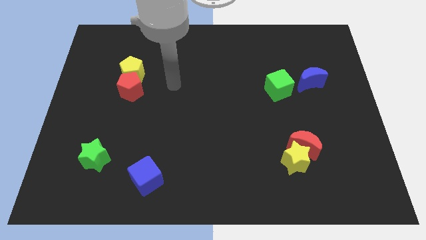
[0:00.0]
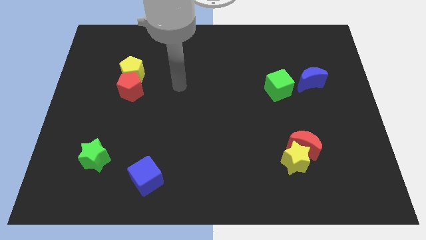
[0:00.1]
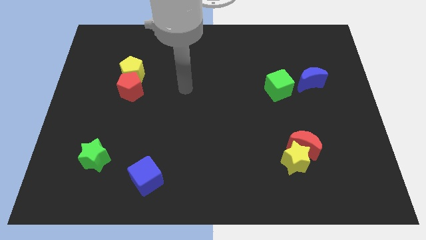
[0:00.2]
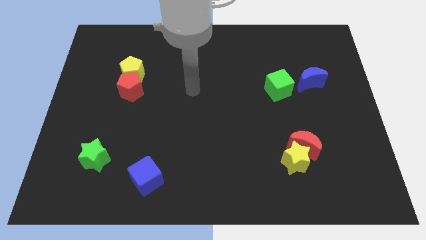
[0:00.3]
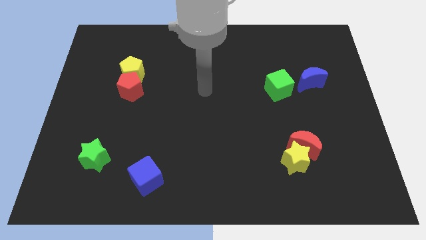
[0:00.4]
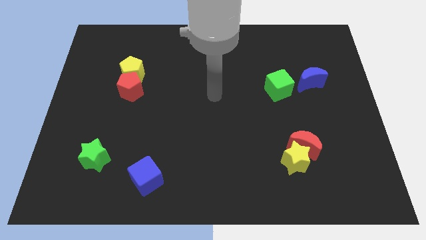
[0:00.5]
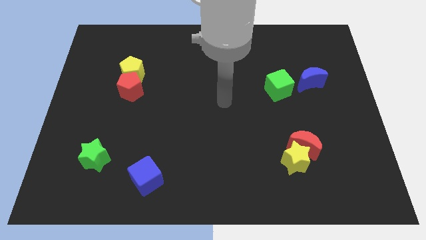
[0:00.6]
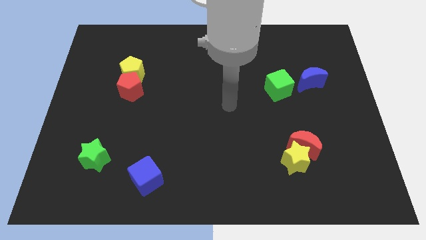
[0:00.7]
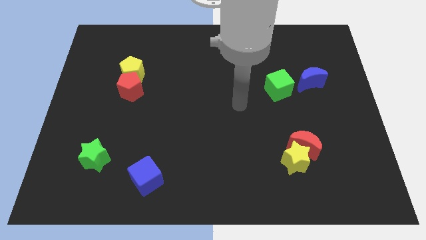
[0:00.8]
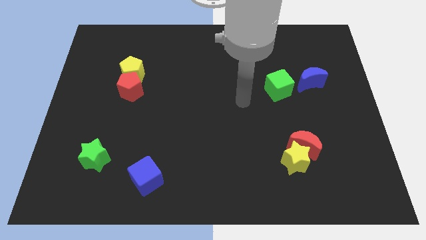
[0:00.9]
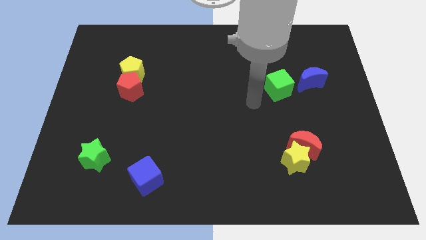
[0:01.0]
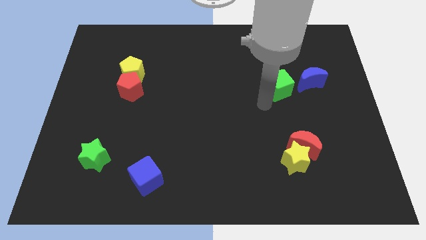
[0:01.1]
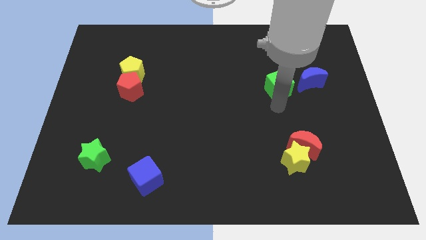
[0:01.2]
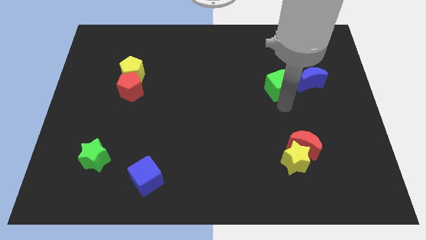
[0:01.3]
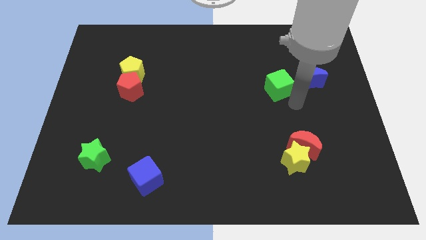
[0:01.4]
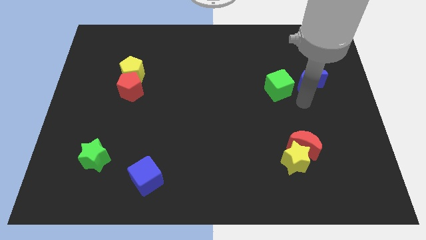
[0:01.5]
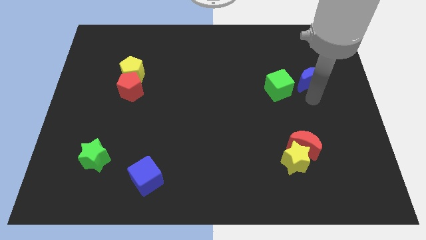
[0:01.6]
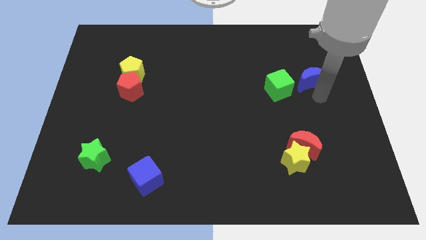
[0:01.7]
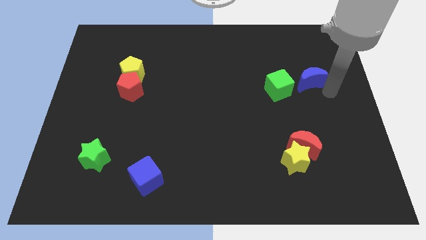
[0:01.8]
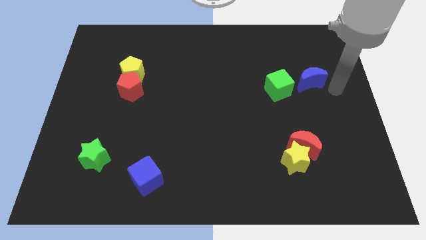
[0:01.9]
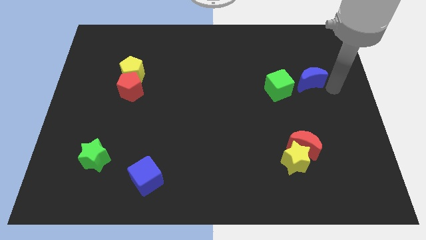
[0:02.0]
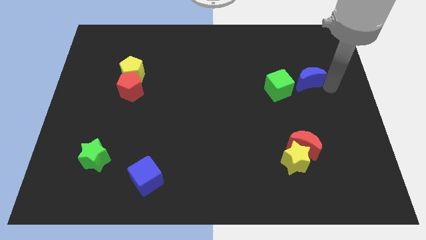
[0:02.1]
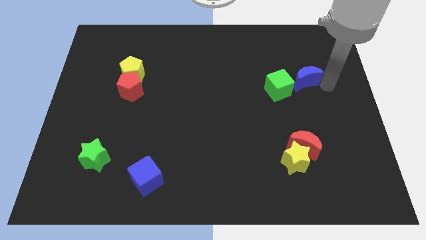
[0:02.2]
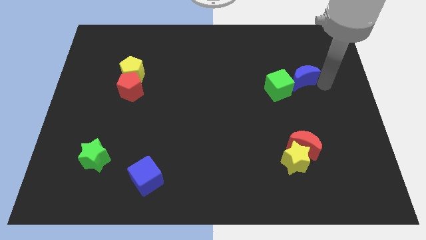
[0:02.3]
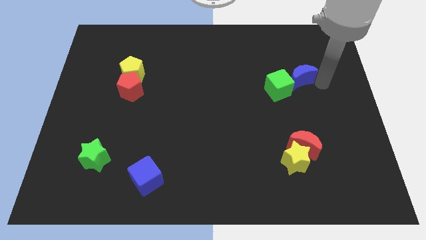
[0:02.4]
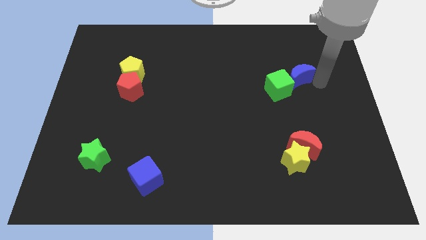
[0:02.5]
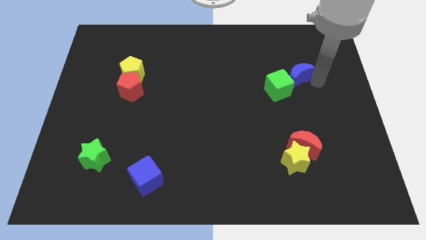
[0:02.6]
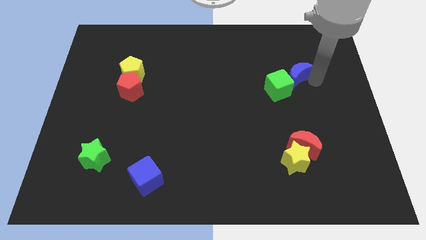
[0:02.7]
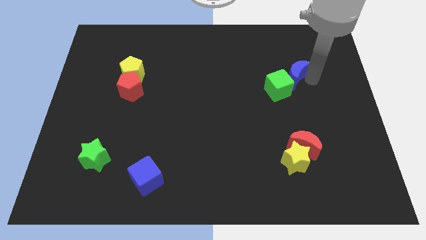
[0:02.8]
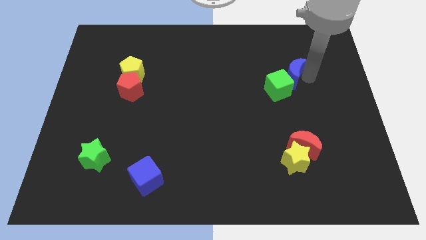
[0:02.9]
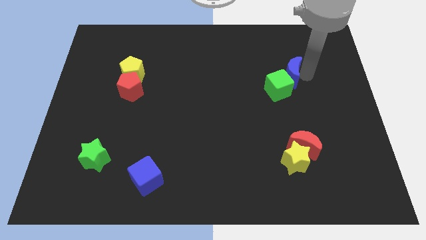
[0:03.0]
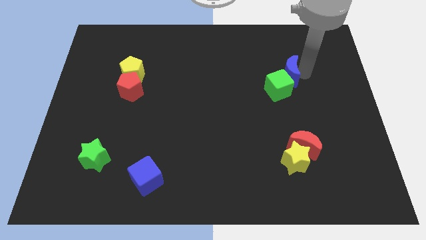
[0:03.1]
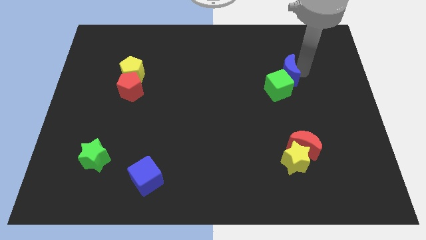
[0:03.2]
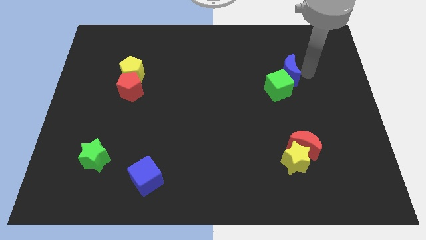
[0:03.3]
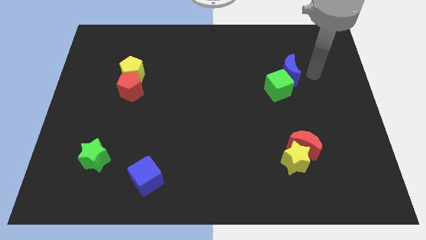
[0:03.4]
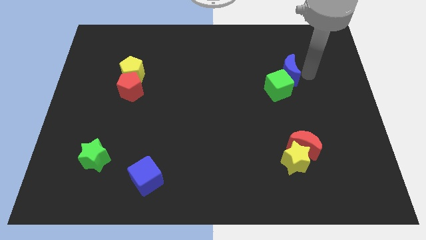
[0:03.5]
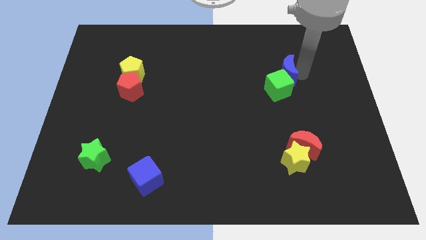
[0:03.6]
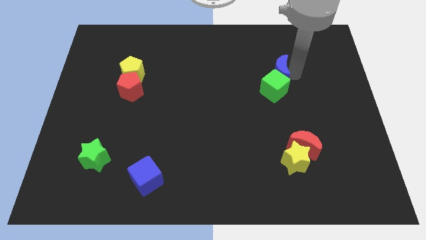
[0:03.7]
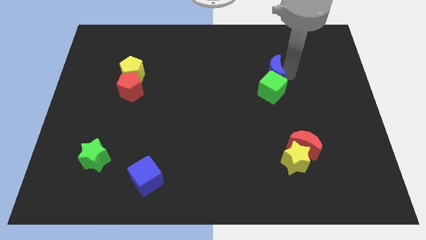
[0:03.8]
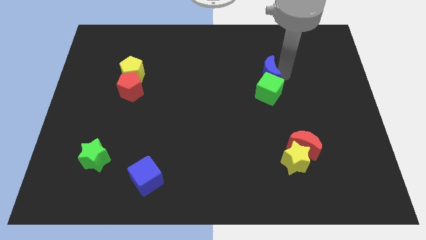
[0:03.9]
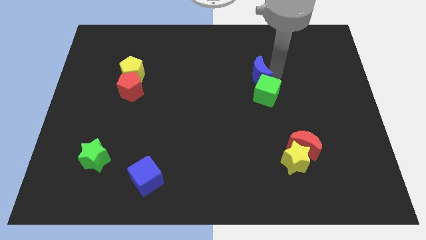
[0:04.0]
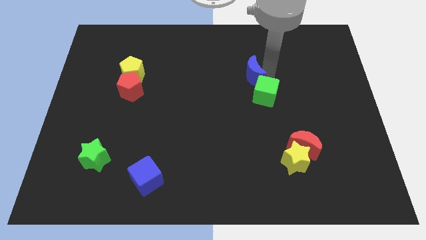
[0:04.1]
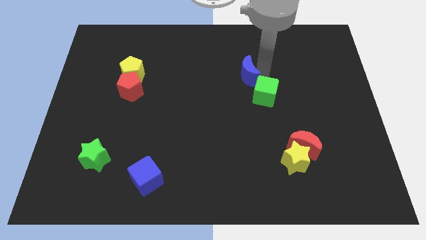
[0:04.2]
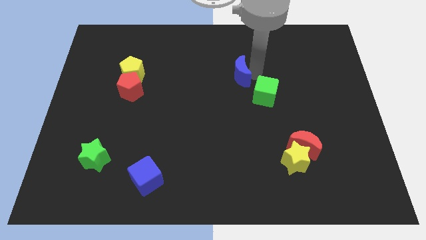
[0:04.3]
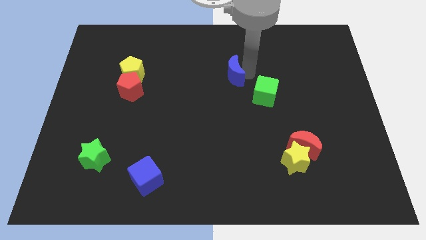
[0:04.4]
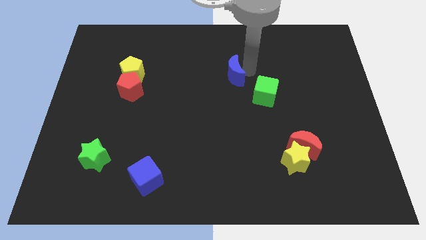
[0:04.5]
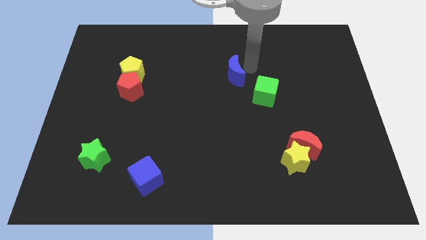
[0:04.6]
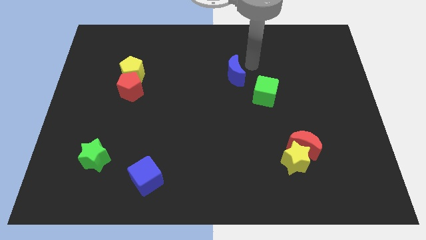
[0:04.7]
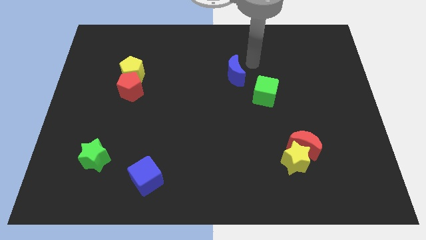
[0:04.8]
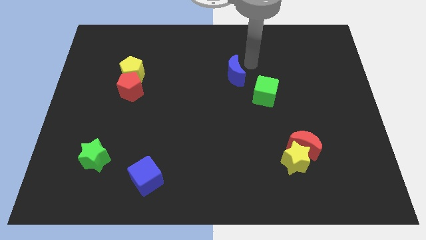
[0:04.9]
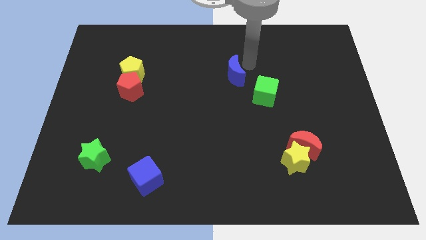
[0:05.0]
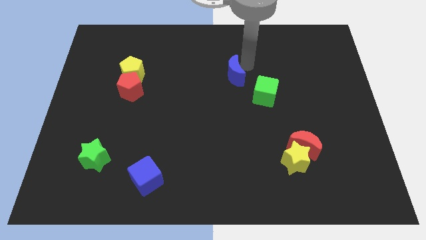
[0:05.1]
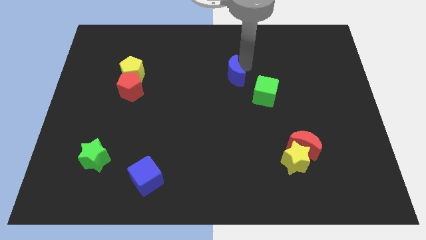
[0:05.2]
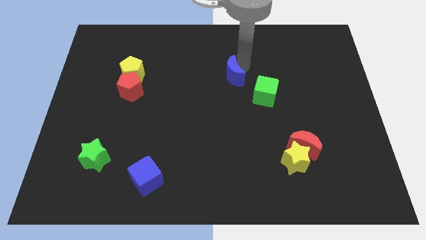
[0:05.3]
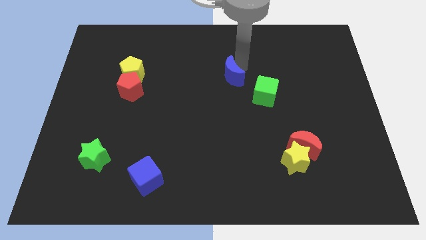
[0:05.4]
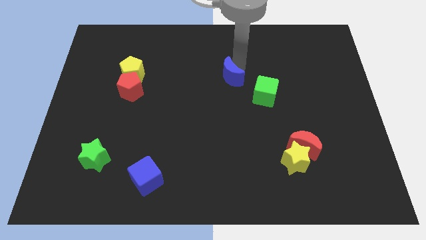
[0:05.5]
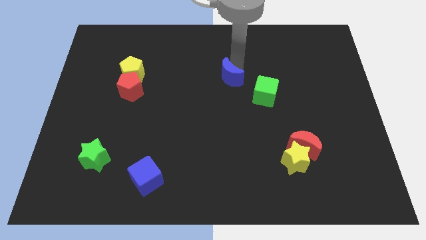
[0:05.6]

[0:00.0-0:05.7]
slide the blue moon to the left

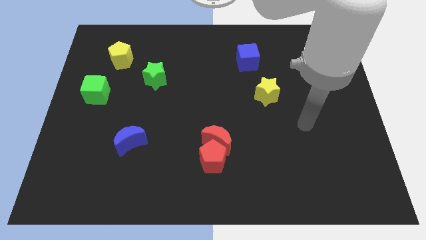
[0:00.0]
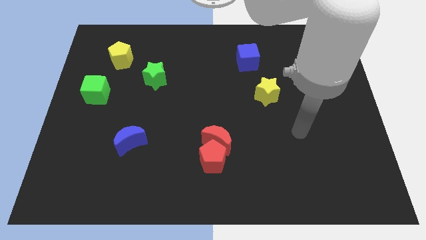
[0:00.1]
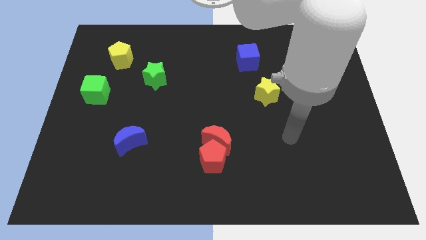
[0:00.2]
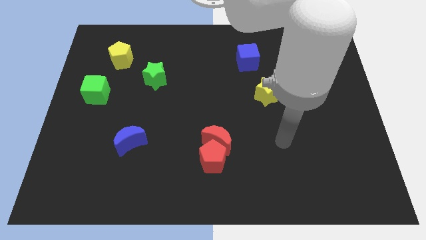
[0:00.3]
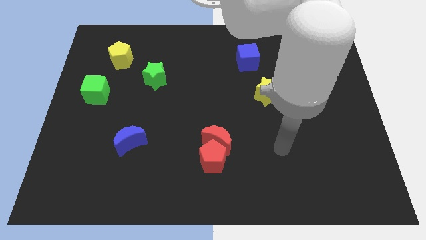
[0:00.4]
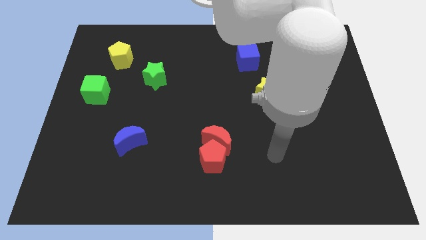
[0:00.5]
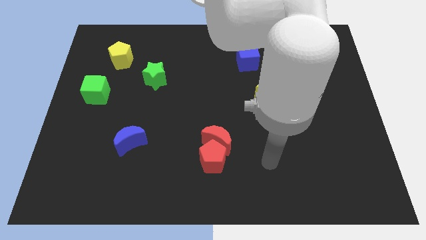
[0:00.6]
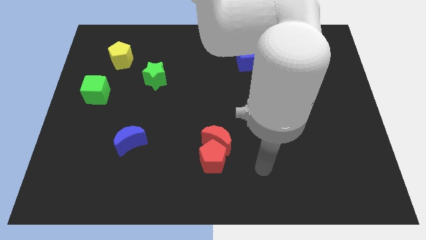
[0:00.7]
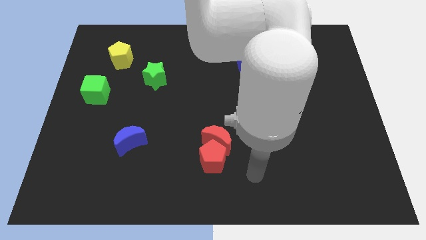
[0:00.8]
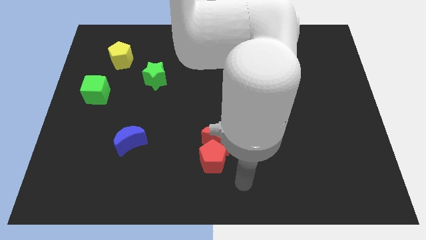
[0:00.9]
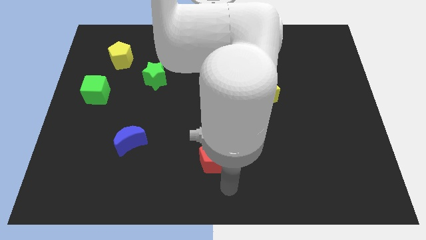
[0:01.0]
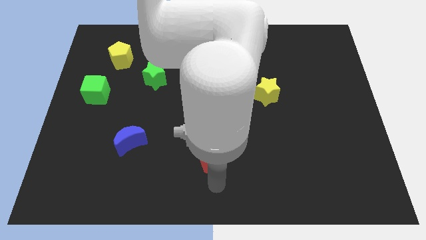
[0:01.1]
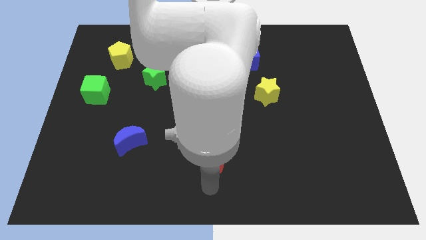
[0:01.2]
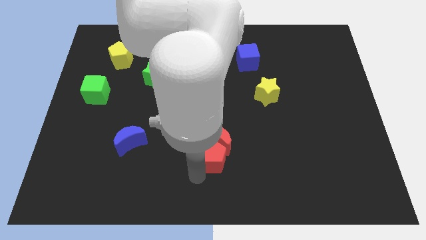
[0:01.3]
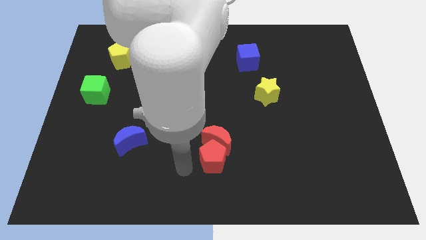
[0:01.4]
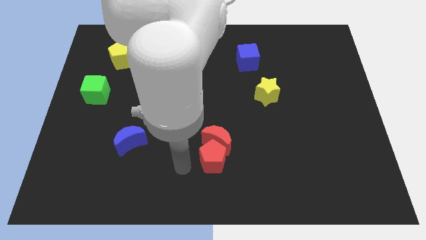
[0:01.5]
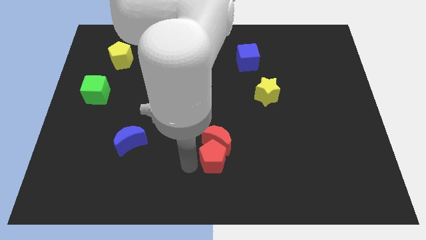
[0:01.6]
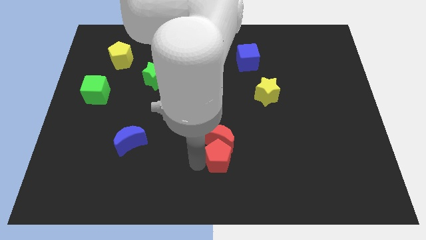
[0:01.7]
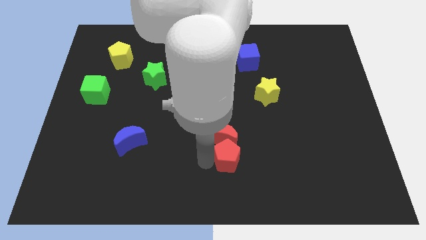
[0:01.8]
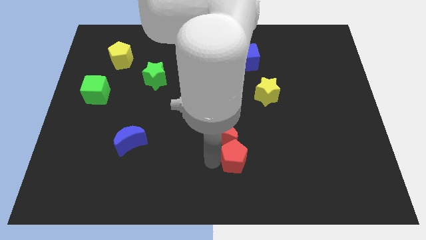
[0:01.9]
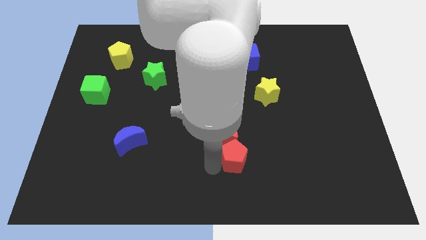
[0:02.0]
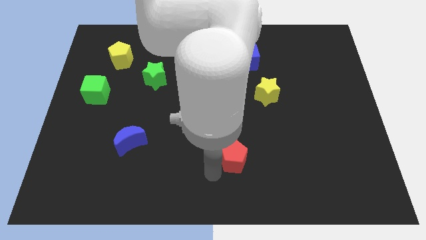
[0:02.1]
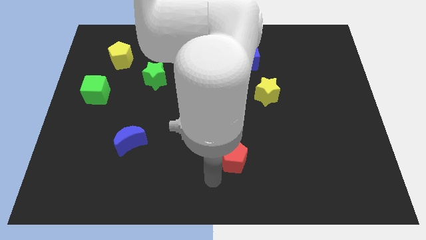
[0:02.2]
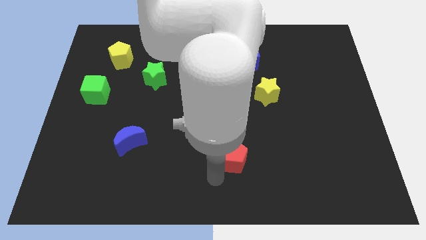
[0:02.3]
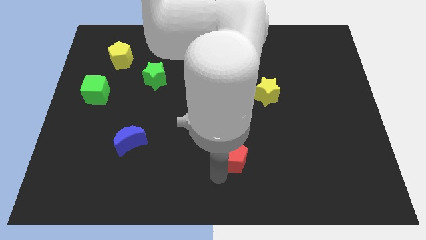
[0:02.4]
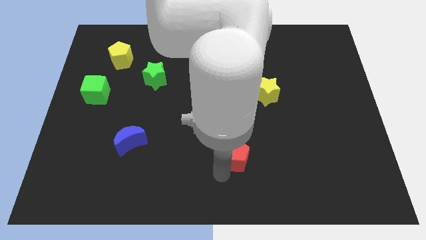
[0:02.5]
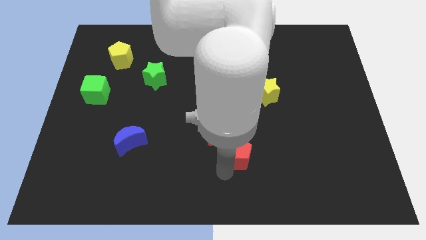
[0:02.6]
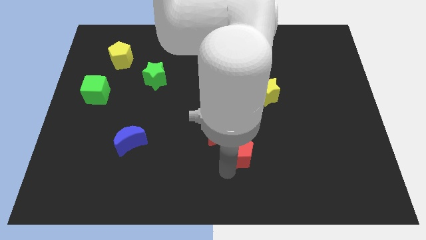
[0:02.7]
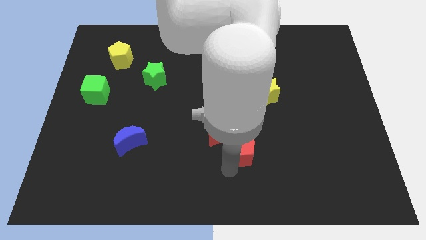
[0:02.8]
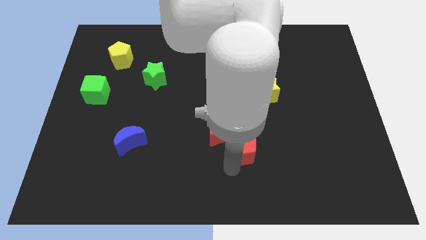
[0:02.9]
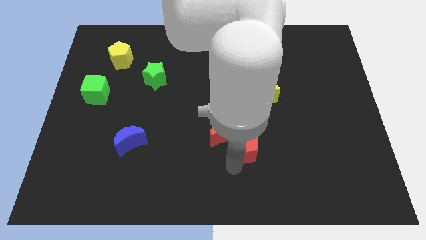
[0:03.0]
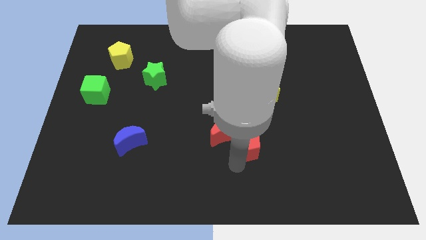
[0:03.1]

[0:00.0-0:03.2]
slightly push the red pentagon up and right diagonally
